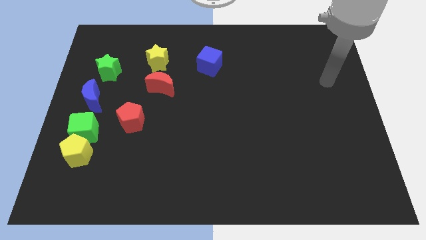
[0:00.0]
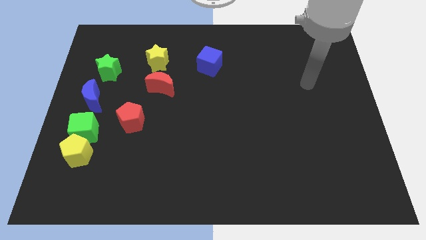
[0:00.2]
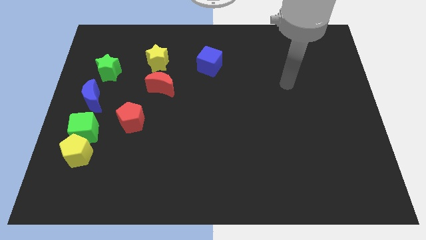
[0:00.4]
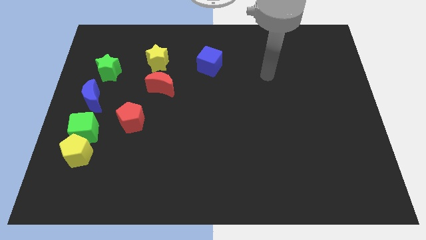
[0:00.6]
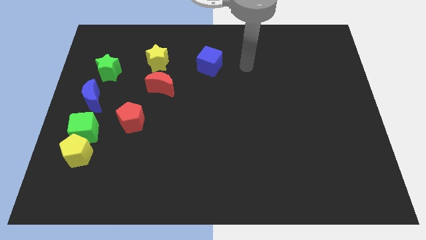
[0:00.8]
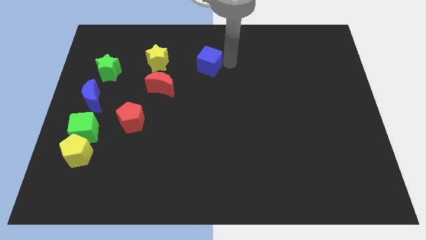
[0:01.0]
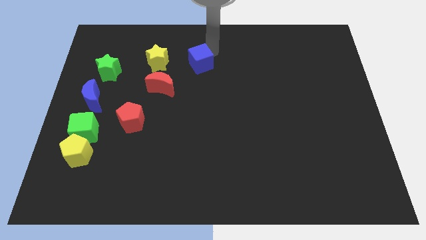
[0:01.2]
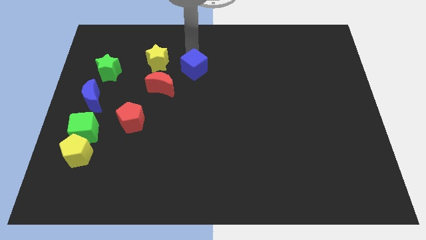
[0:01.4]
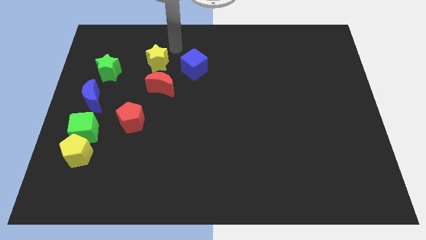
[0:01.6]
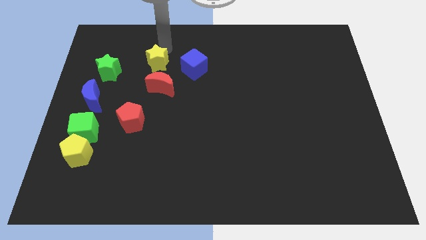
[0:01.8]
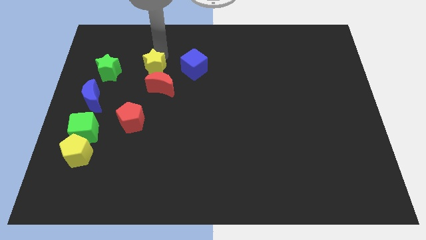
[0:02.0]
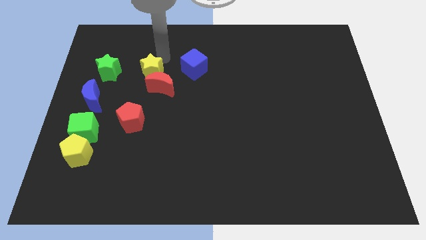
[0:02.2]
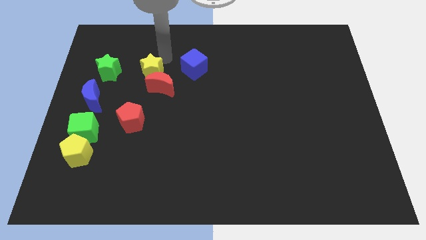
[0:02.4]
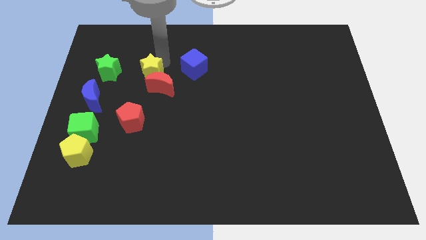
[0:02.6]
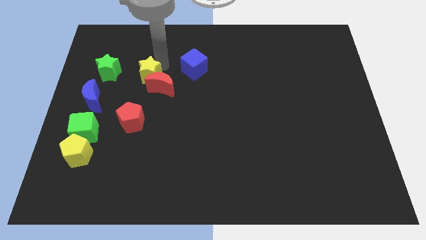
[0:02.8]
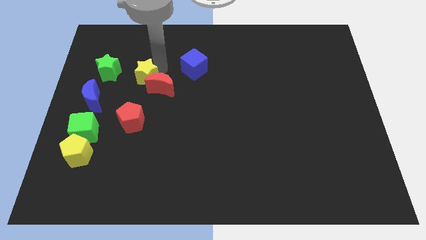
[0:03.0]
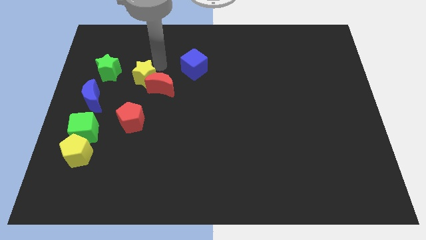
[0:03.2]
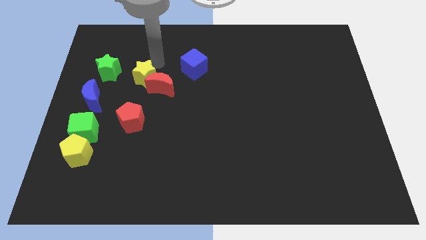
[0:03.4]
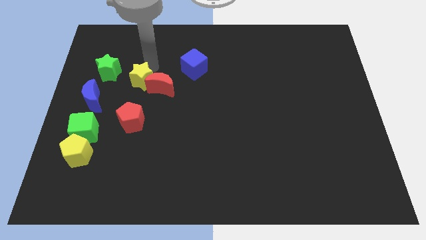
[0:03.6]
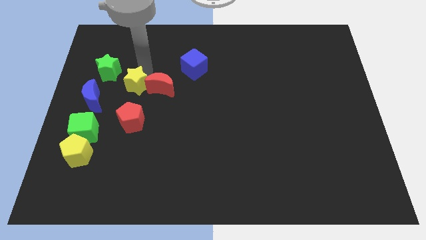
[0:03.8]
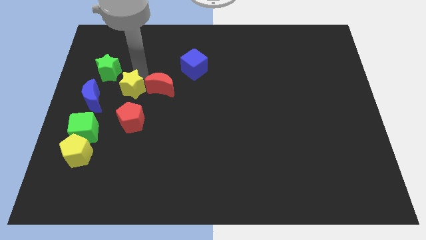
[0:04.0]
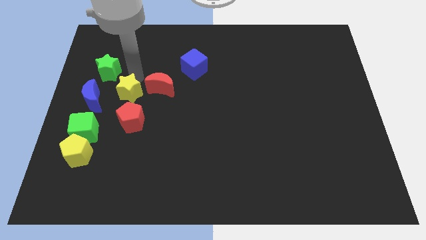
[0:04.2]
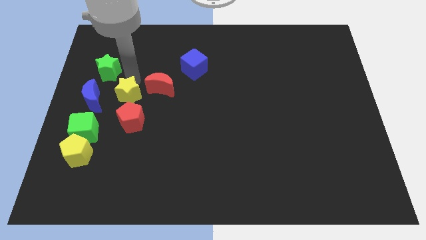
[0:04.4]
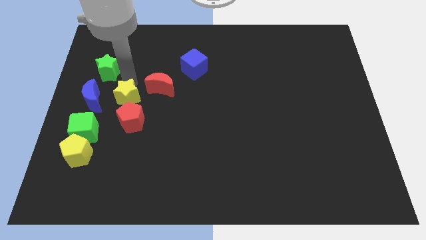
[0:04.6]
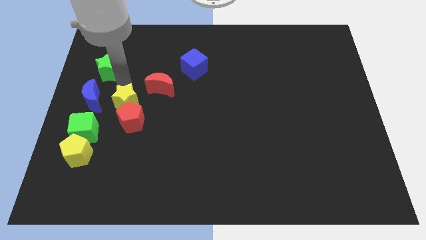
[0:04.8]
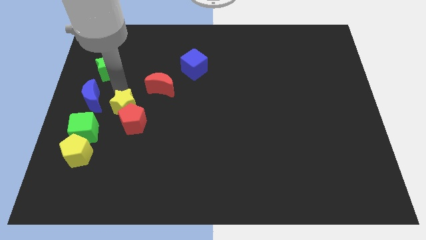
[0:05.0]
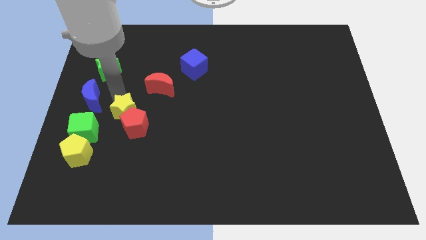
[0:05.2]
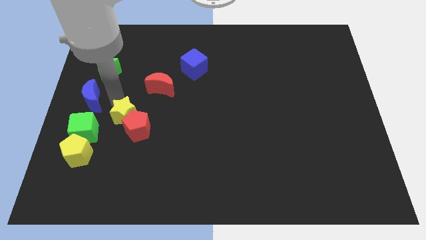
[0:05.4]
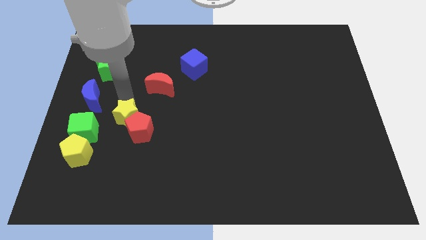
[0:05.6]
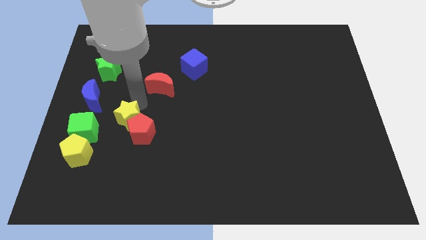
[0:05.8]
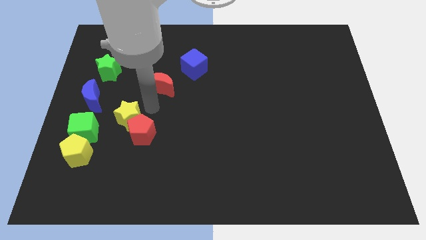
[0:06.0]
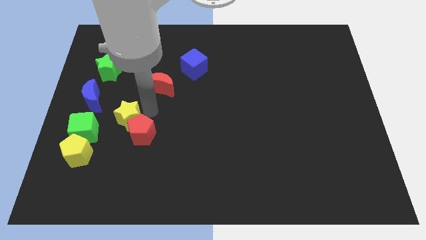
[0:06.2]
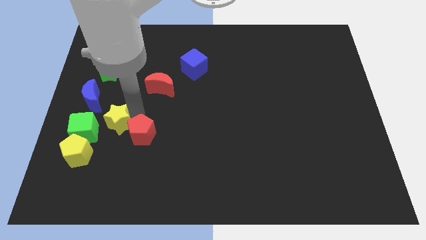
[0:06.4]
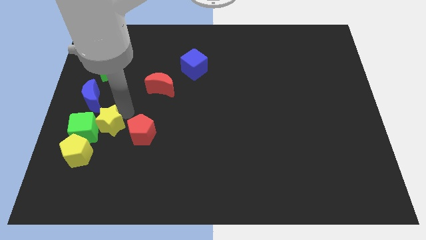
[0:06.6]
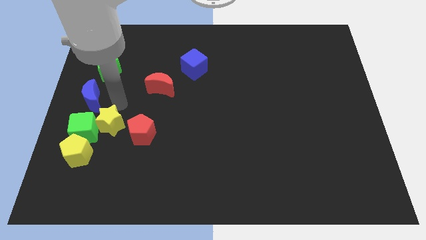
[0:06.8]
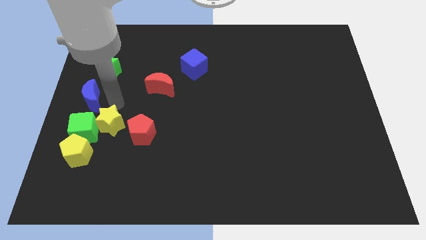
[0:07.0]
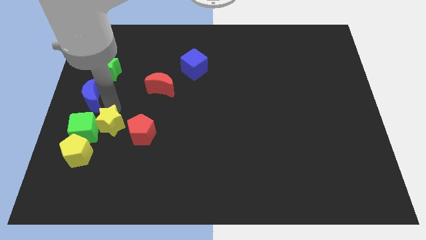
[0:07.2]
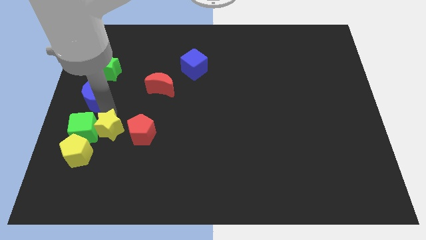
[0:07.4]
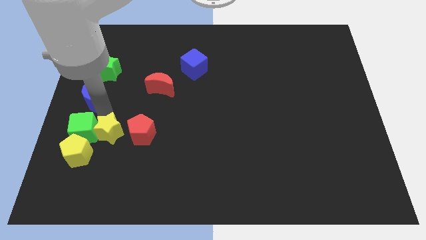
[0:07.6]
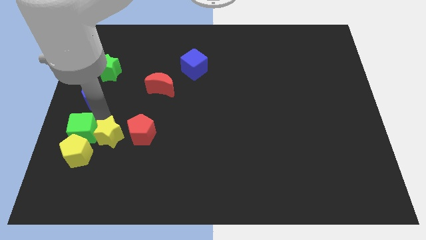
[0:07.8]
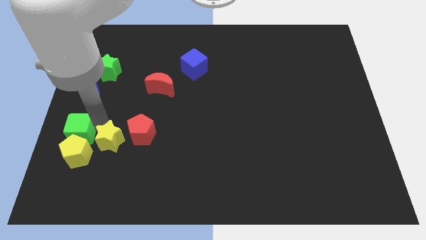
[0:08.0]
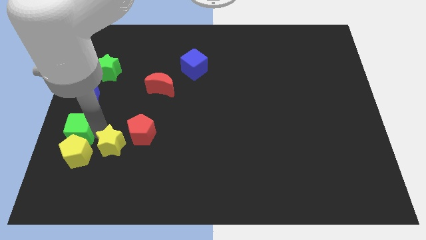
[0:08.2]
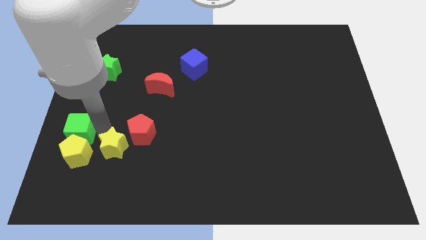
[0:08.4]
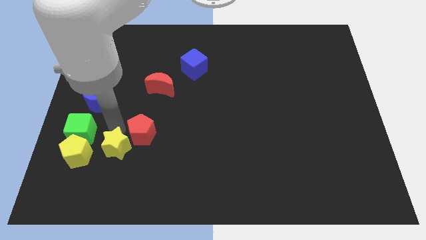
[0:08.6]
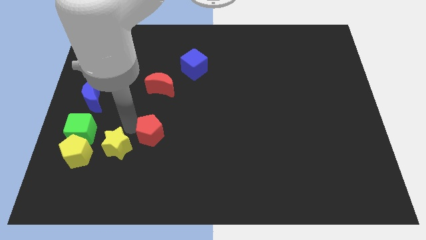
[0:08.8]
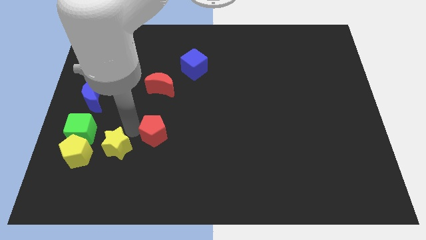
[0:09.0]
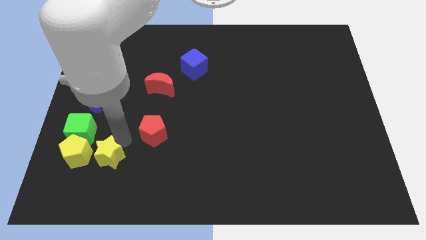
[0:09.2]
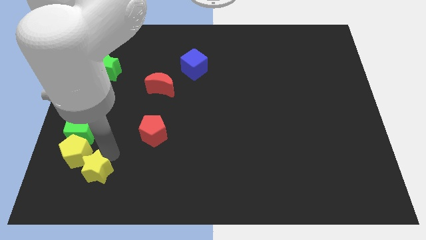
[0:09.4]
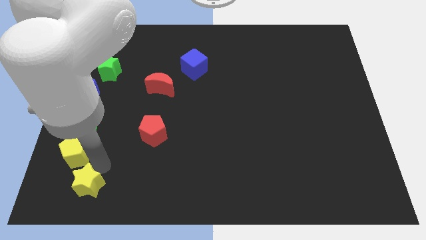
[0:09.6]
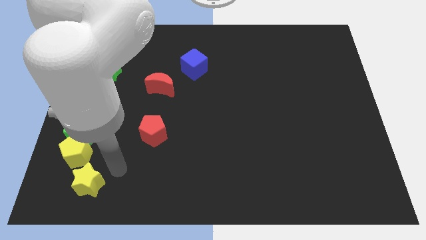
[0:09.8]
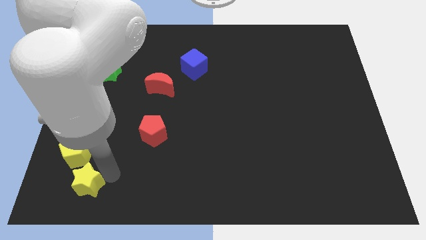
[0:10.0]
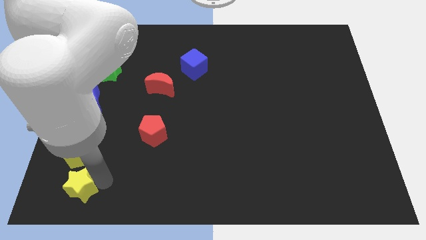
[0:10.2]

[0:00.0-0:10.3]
push the yellow star to the bottom left

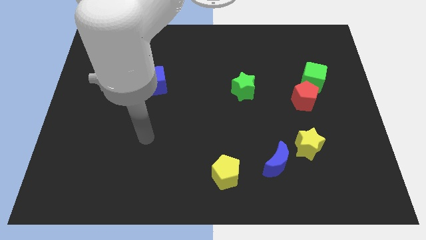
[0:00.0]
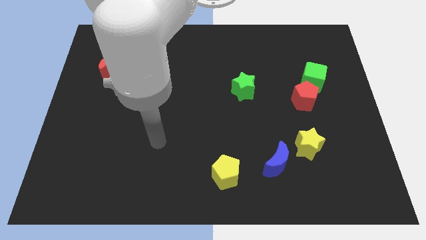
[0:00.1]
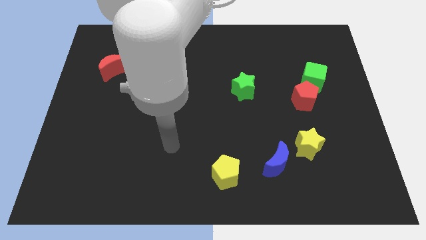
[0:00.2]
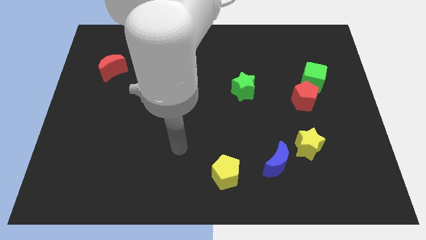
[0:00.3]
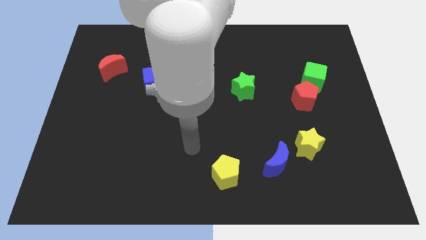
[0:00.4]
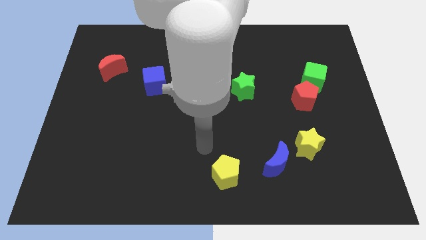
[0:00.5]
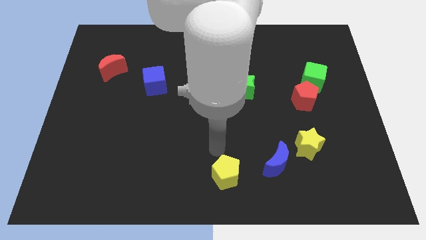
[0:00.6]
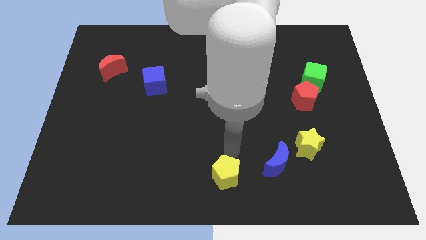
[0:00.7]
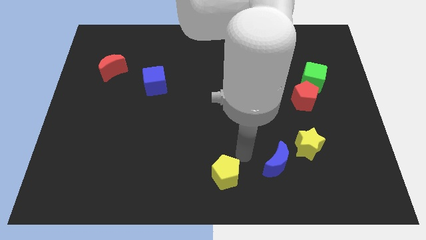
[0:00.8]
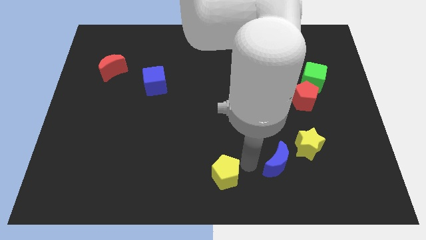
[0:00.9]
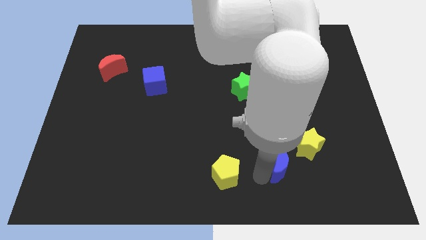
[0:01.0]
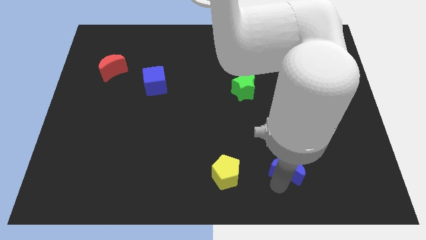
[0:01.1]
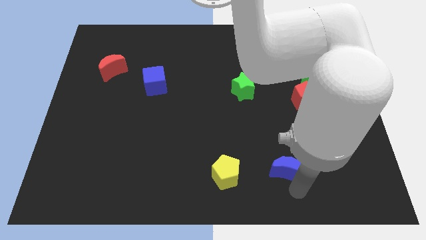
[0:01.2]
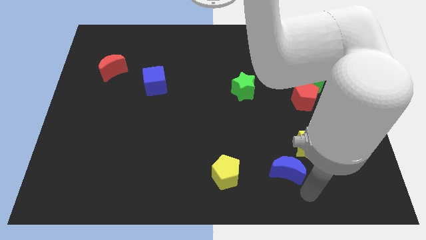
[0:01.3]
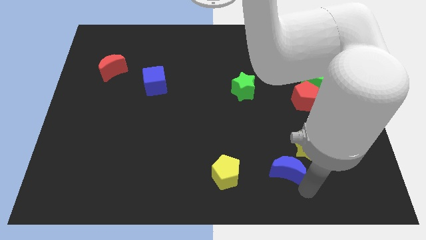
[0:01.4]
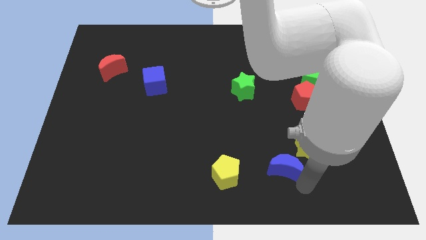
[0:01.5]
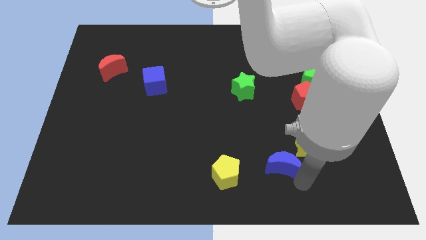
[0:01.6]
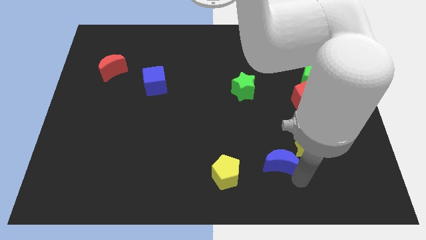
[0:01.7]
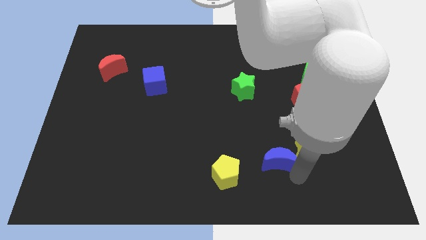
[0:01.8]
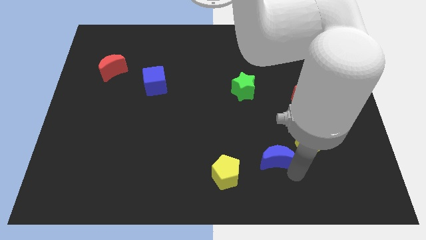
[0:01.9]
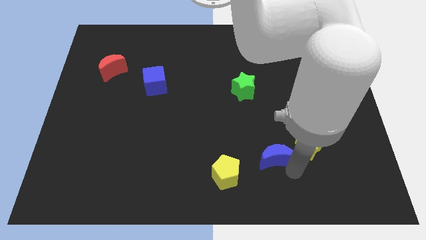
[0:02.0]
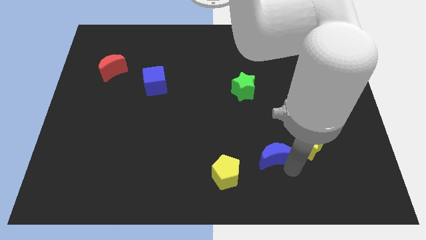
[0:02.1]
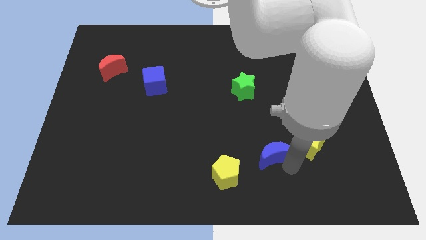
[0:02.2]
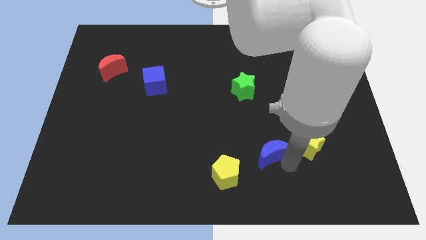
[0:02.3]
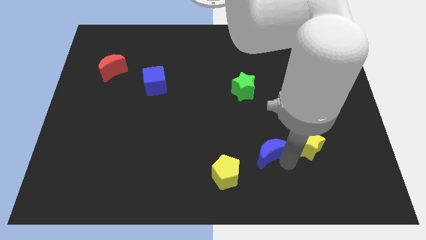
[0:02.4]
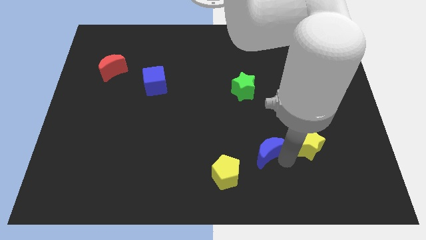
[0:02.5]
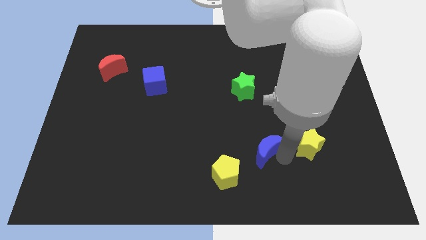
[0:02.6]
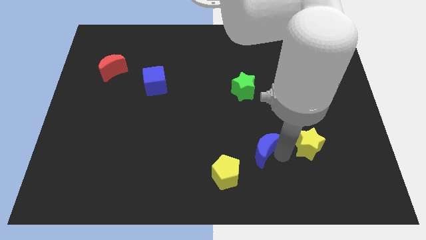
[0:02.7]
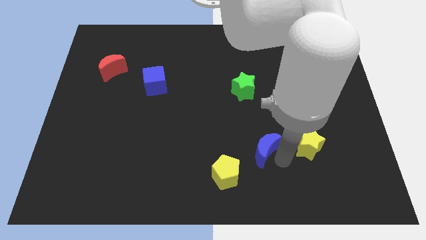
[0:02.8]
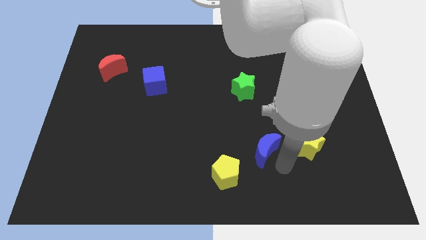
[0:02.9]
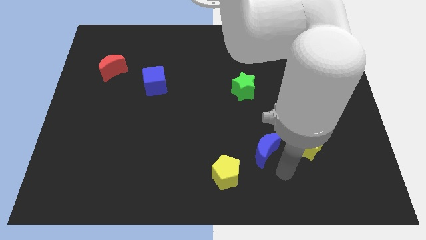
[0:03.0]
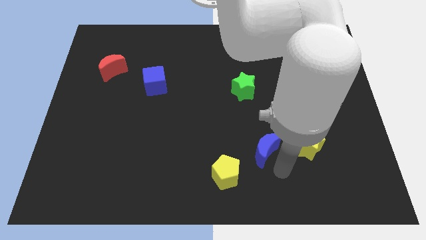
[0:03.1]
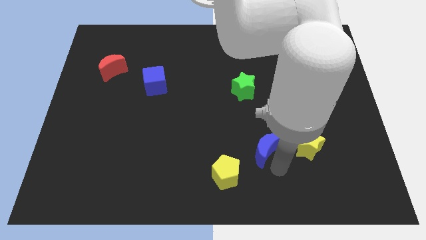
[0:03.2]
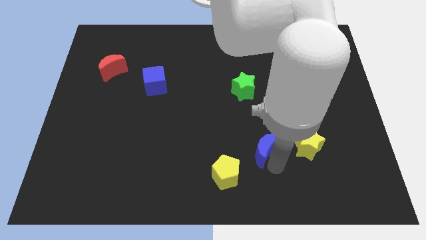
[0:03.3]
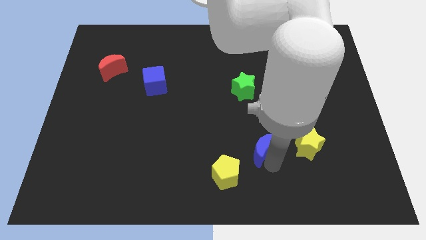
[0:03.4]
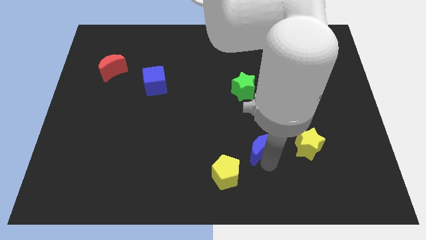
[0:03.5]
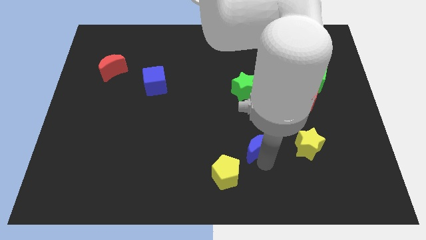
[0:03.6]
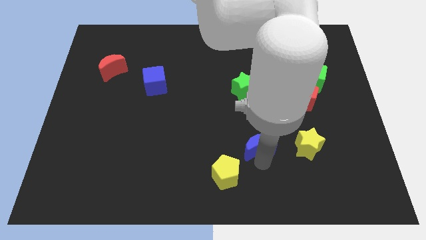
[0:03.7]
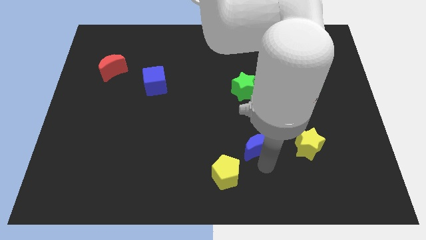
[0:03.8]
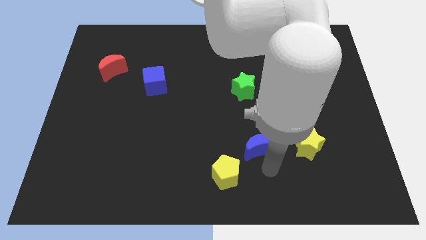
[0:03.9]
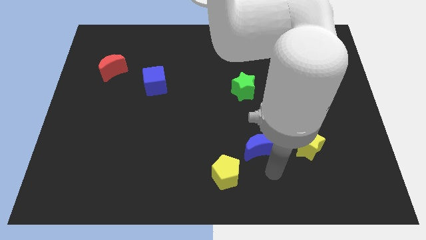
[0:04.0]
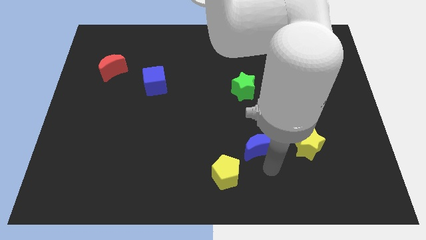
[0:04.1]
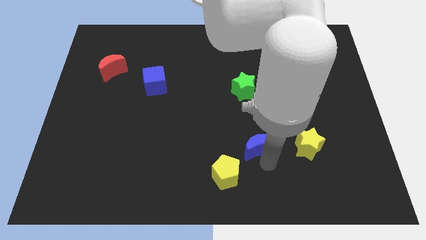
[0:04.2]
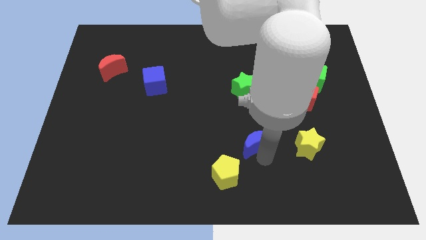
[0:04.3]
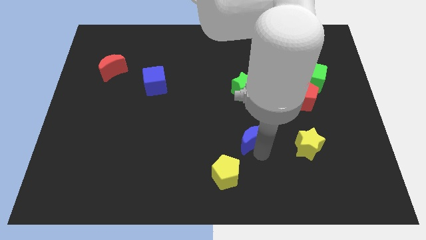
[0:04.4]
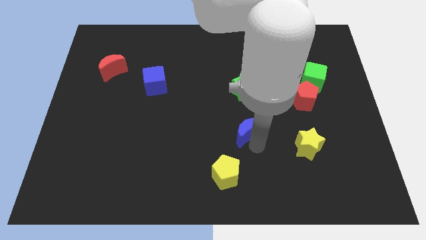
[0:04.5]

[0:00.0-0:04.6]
push the blue moon to the middle of the board
